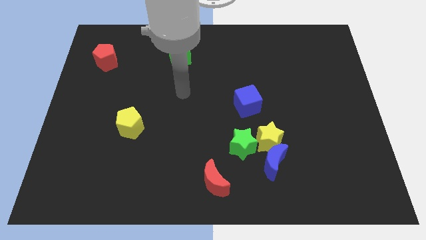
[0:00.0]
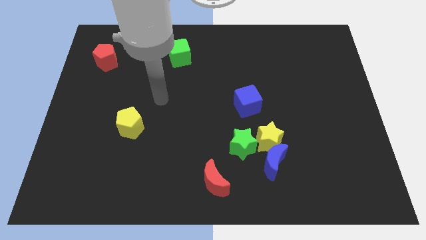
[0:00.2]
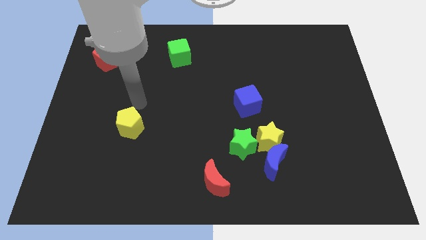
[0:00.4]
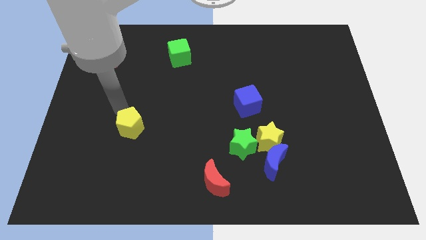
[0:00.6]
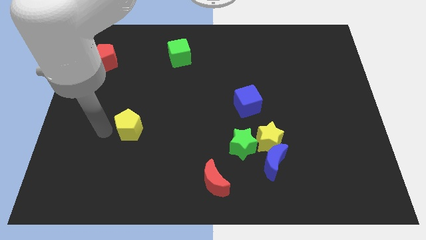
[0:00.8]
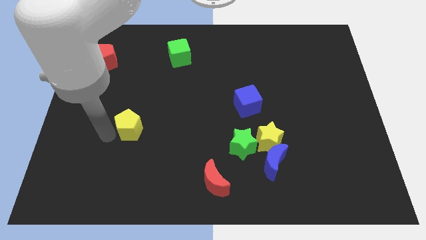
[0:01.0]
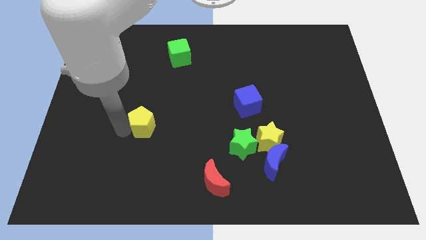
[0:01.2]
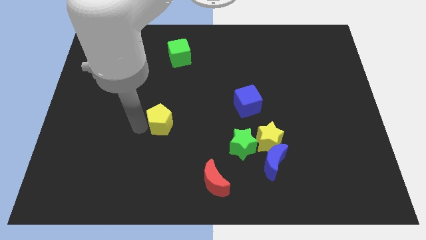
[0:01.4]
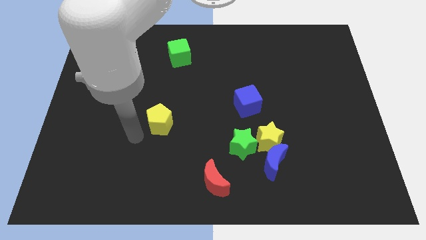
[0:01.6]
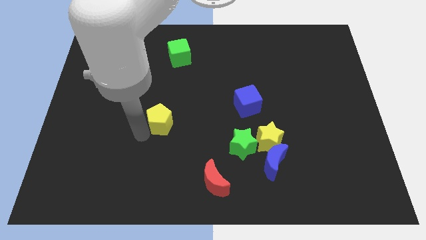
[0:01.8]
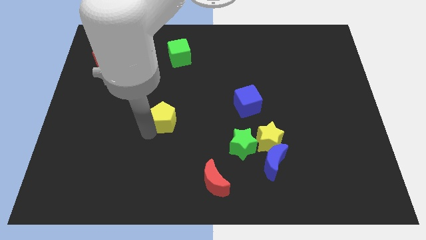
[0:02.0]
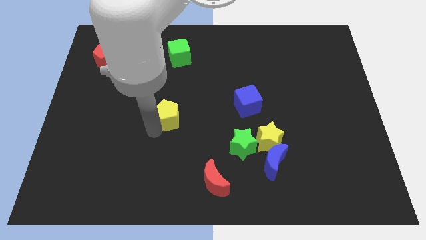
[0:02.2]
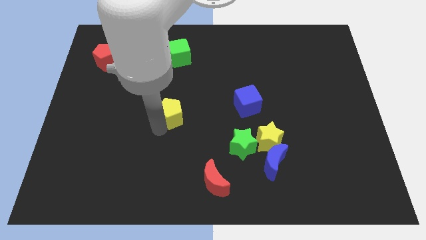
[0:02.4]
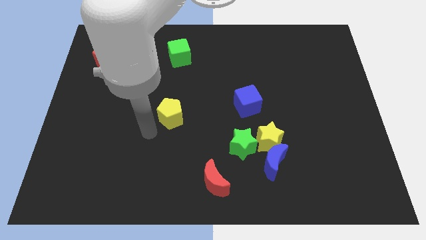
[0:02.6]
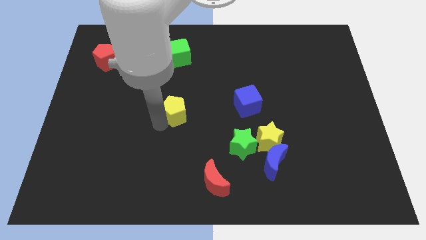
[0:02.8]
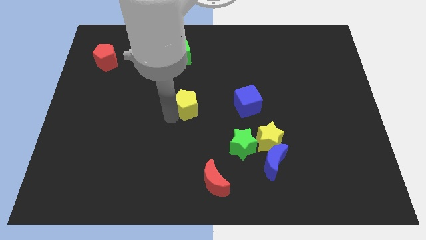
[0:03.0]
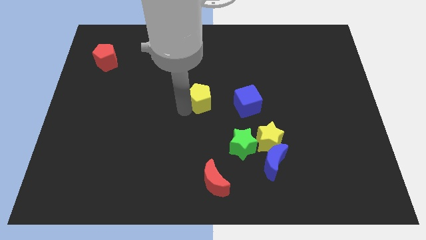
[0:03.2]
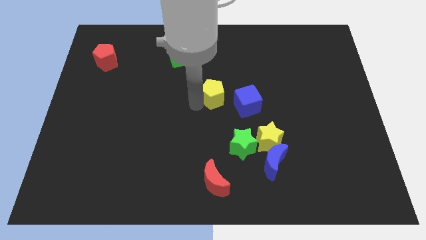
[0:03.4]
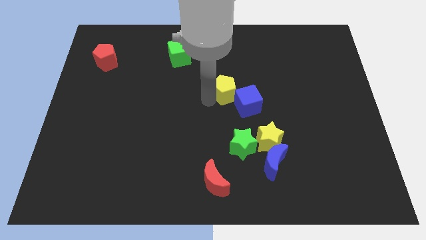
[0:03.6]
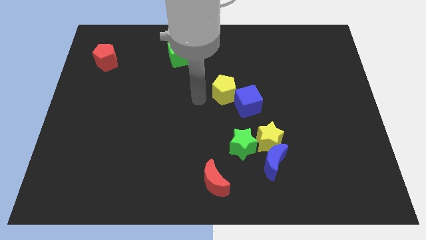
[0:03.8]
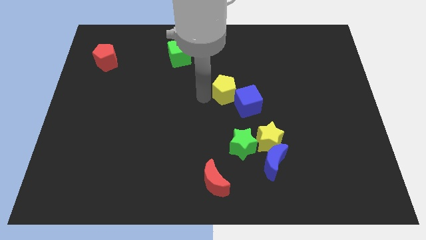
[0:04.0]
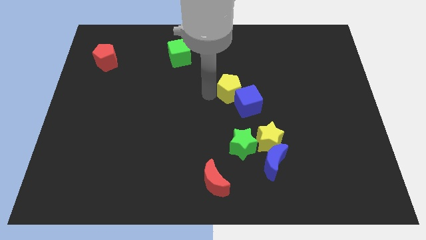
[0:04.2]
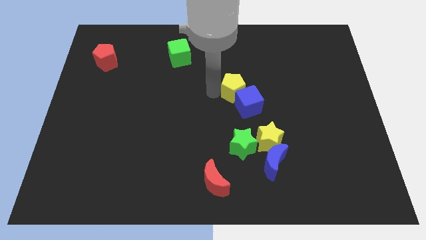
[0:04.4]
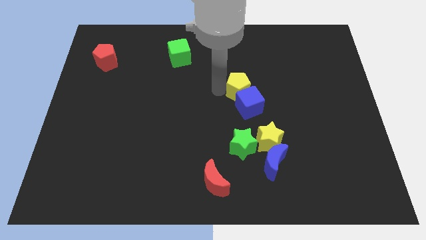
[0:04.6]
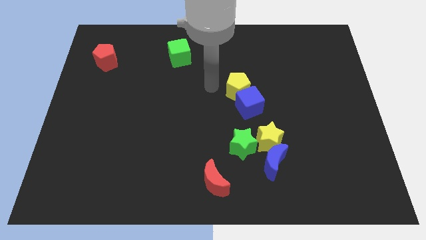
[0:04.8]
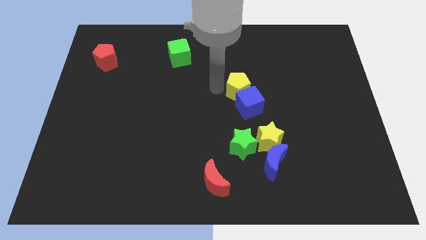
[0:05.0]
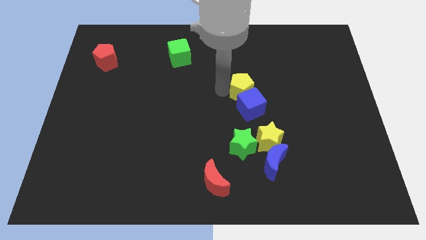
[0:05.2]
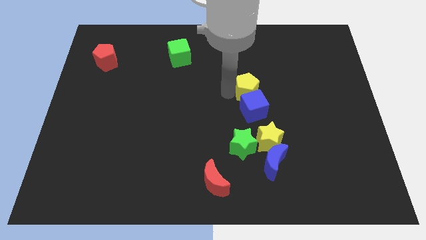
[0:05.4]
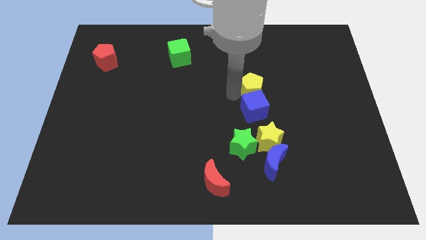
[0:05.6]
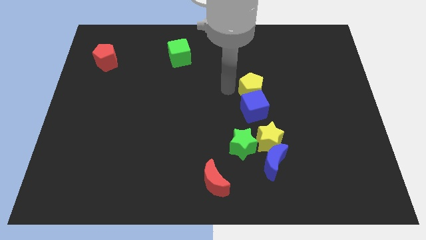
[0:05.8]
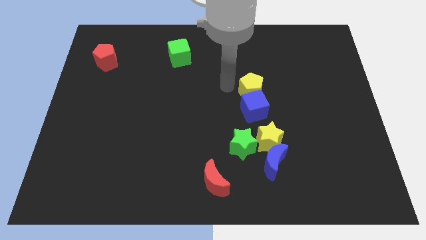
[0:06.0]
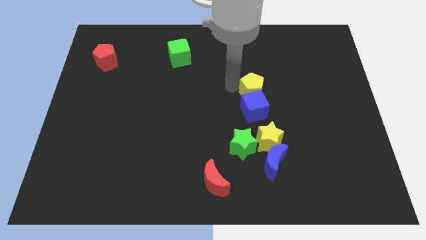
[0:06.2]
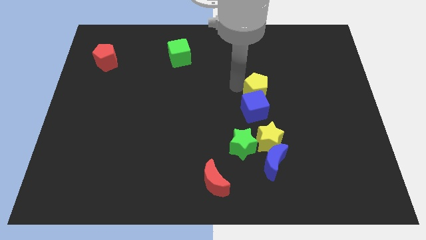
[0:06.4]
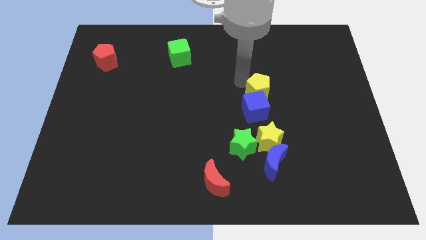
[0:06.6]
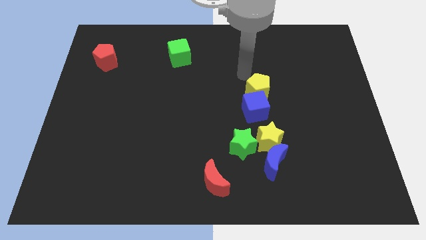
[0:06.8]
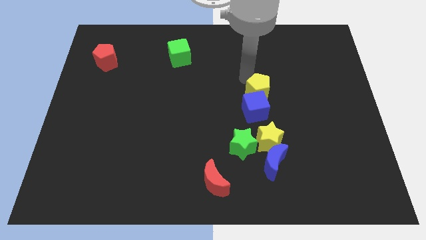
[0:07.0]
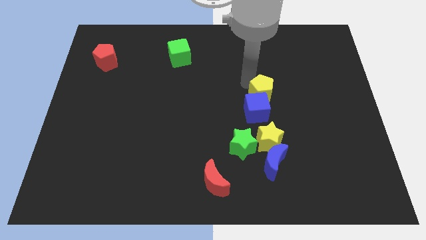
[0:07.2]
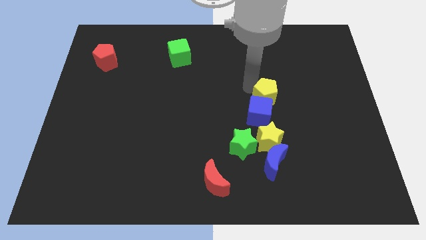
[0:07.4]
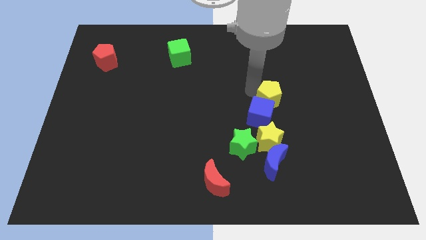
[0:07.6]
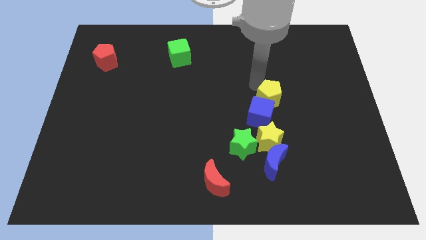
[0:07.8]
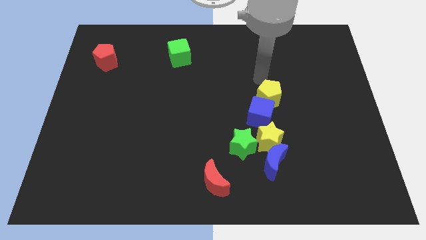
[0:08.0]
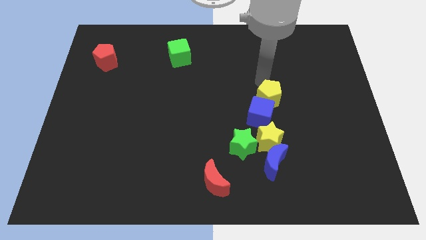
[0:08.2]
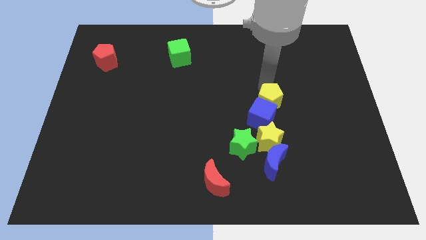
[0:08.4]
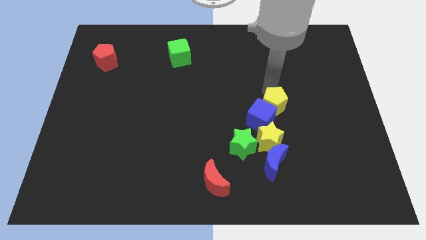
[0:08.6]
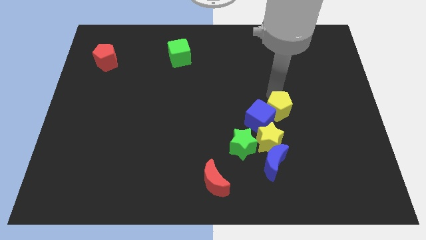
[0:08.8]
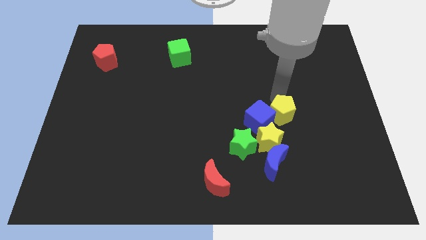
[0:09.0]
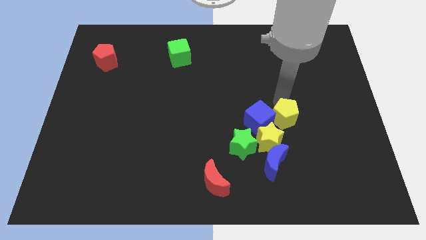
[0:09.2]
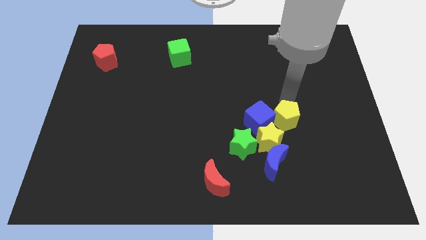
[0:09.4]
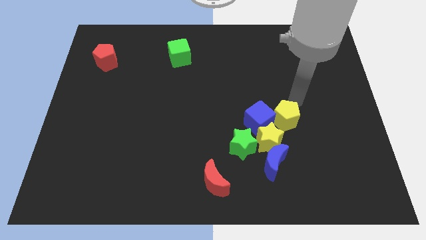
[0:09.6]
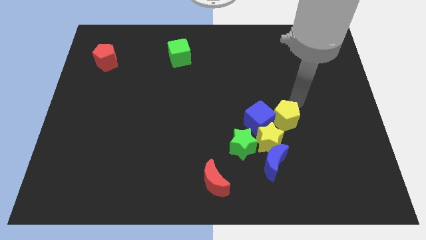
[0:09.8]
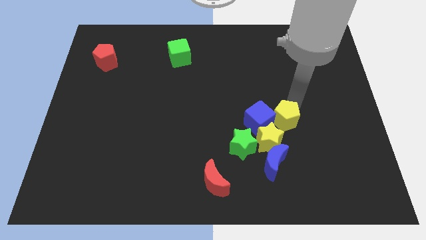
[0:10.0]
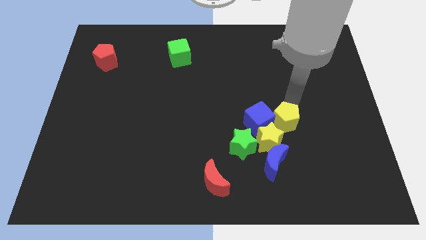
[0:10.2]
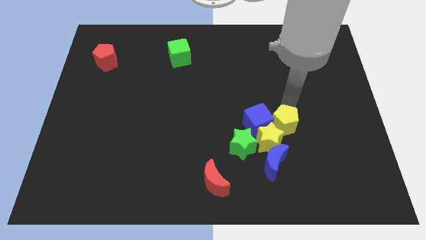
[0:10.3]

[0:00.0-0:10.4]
move the yellow pentagon right of the yellow star

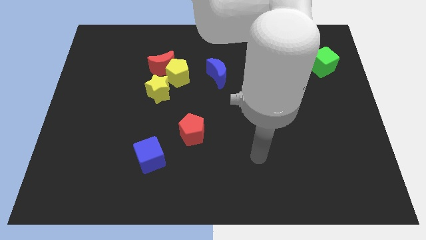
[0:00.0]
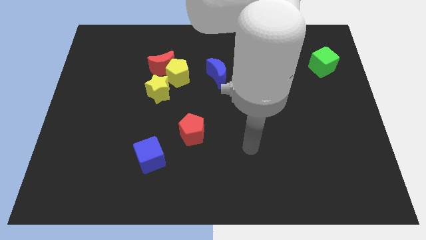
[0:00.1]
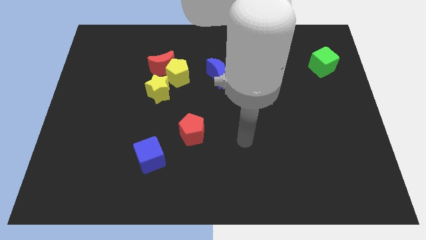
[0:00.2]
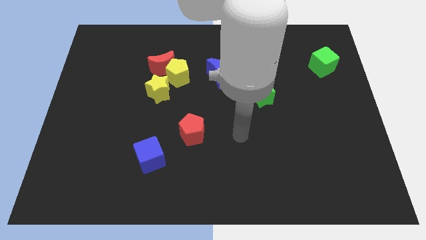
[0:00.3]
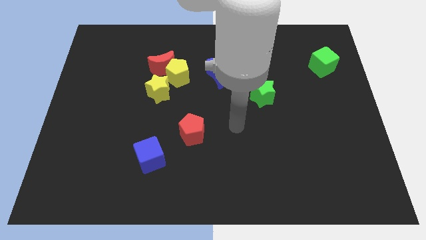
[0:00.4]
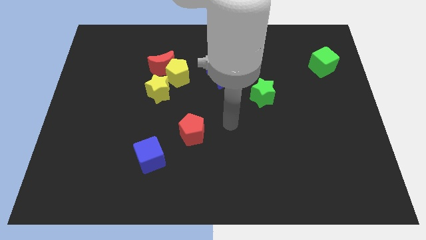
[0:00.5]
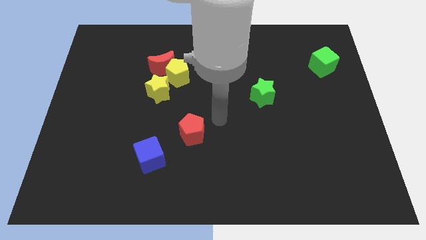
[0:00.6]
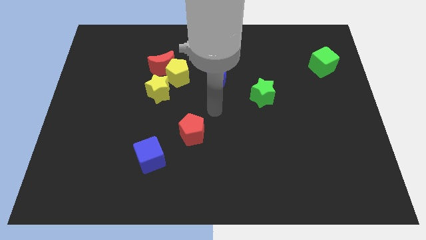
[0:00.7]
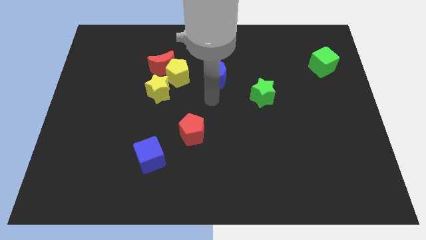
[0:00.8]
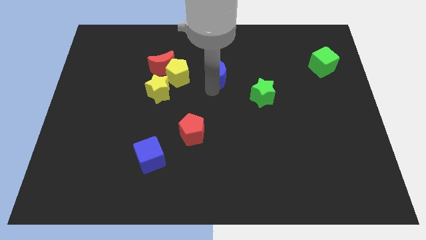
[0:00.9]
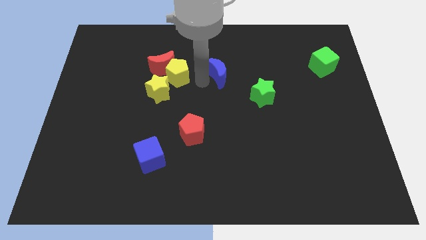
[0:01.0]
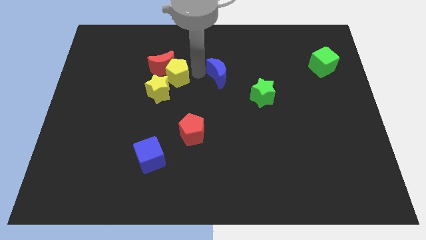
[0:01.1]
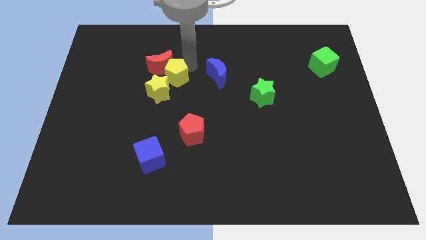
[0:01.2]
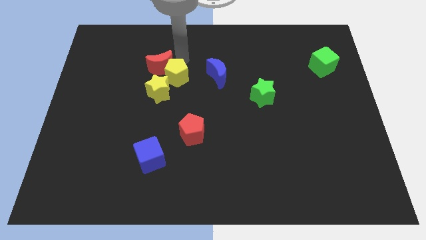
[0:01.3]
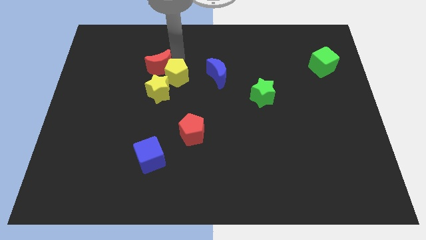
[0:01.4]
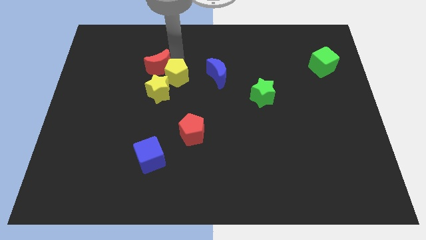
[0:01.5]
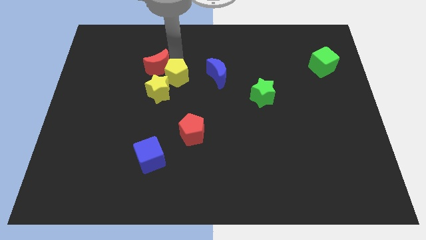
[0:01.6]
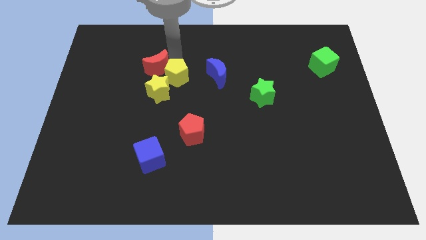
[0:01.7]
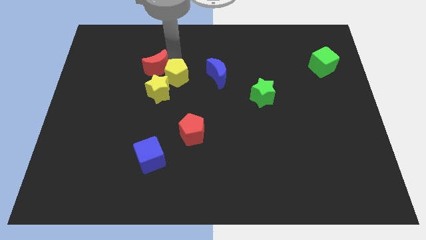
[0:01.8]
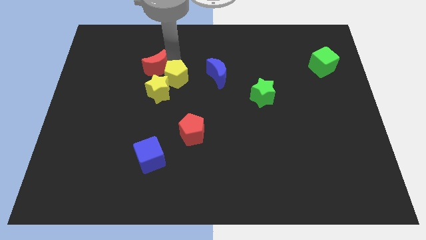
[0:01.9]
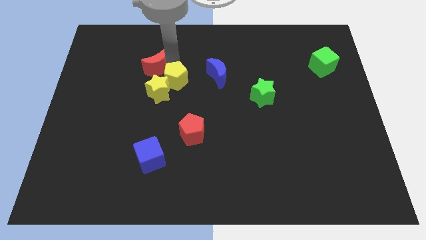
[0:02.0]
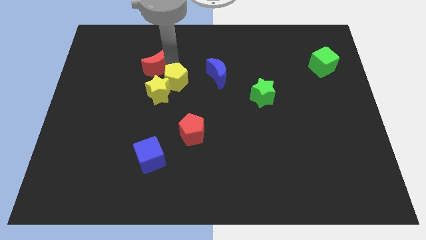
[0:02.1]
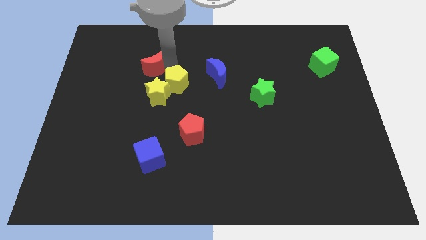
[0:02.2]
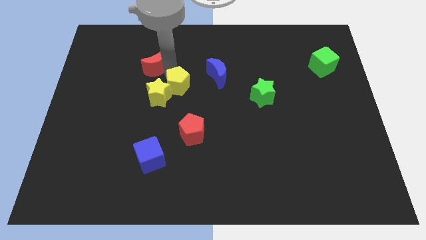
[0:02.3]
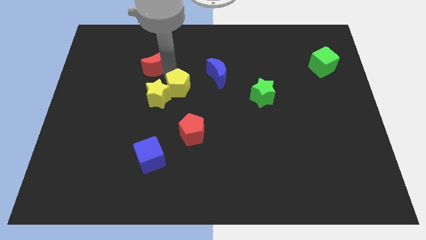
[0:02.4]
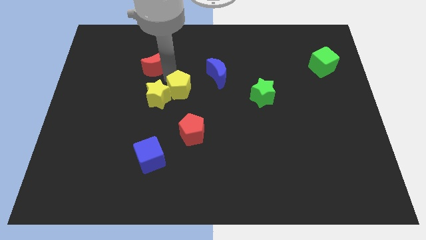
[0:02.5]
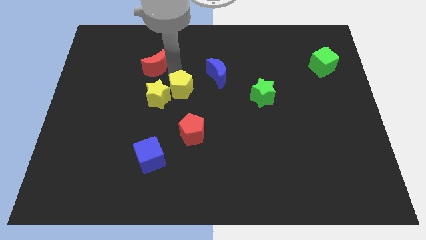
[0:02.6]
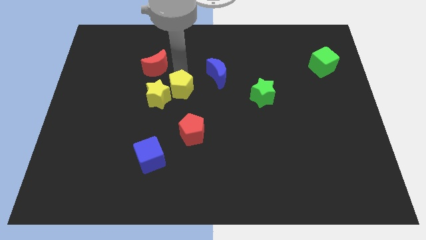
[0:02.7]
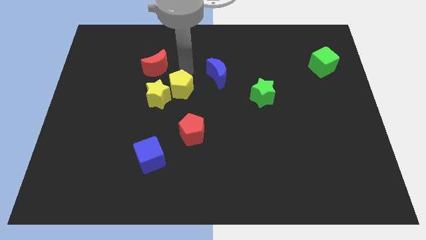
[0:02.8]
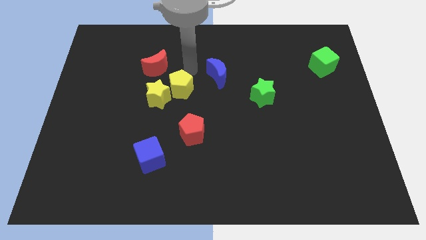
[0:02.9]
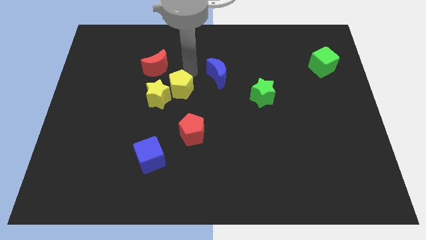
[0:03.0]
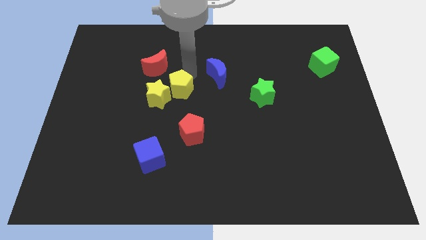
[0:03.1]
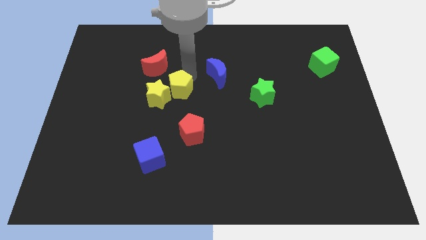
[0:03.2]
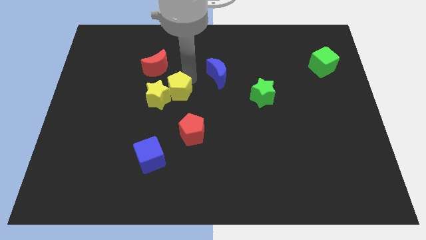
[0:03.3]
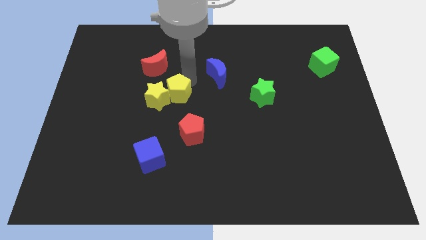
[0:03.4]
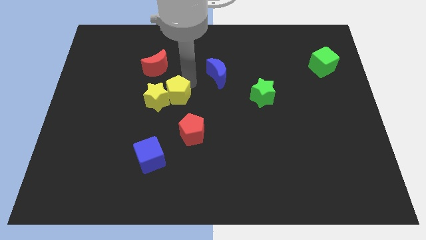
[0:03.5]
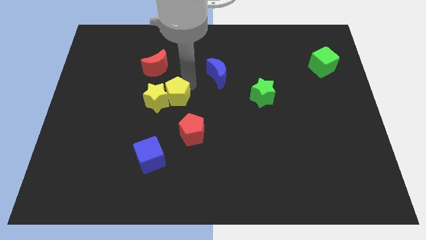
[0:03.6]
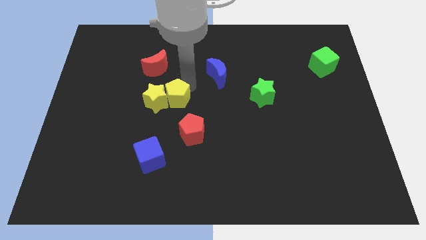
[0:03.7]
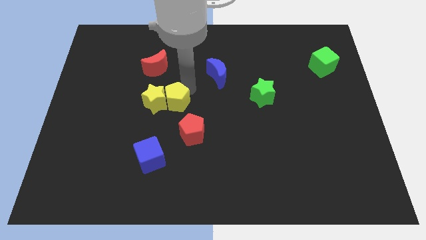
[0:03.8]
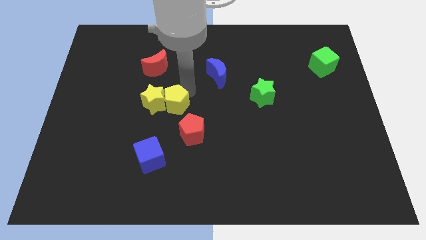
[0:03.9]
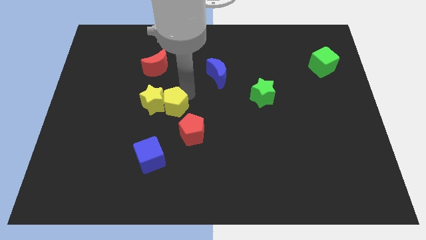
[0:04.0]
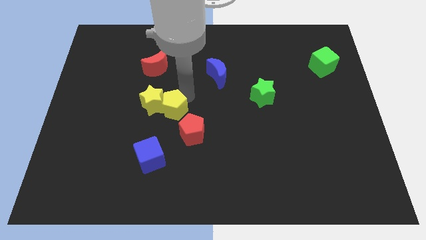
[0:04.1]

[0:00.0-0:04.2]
move the yellow pentagon above the blue cube
